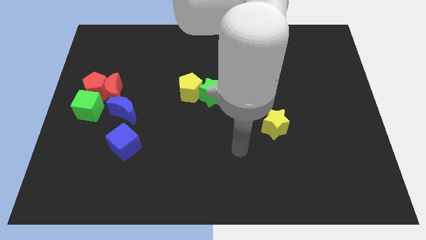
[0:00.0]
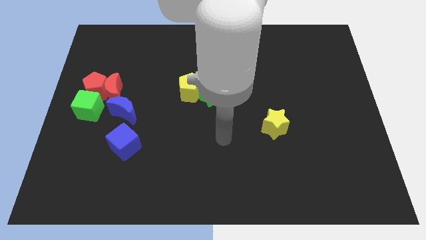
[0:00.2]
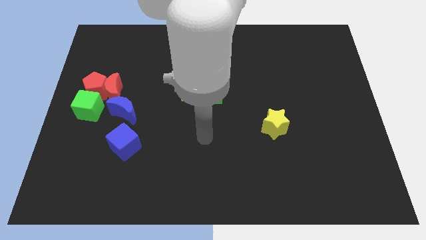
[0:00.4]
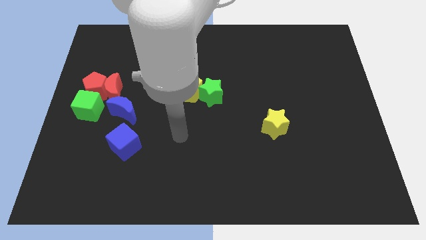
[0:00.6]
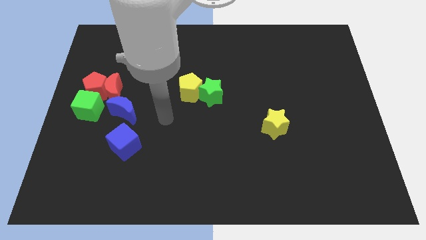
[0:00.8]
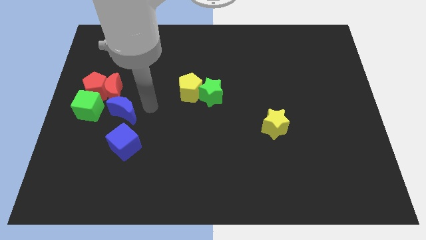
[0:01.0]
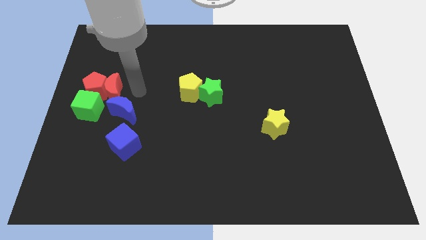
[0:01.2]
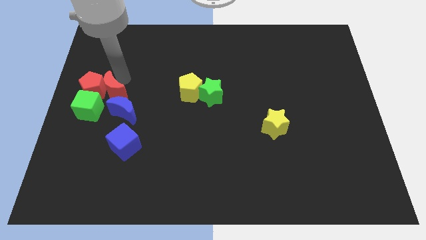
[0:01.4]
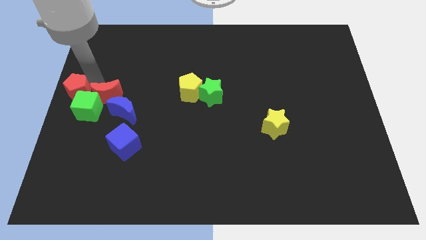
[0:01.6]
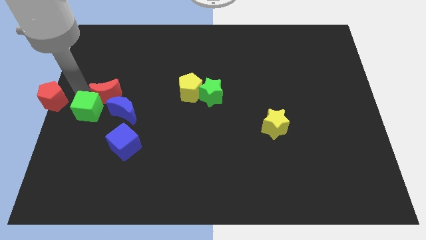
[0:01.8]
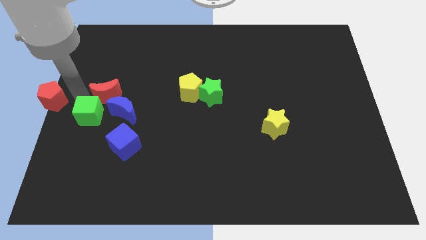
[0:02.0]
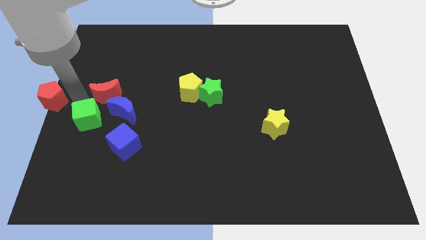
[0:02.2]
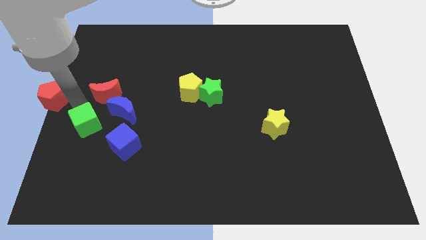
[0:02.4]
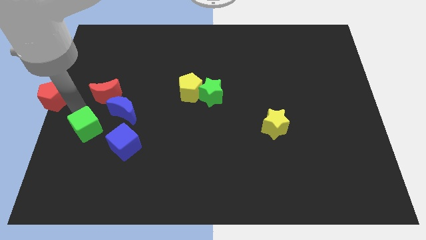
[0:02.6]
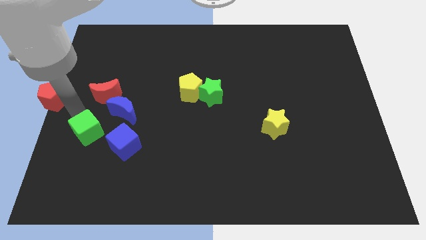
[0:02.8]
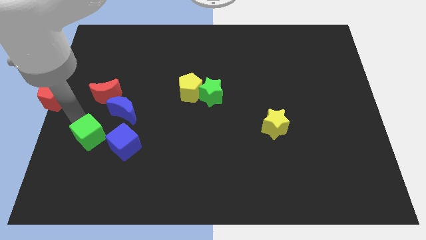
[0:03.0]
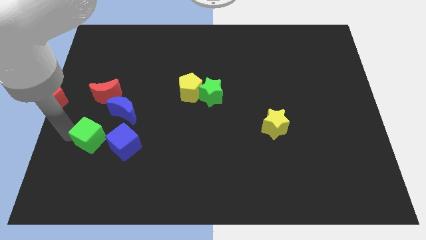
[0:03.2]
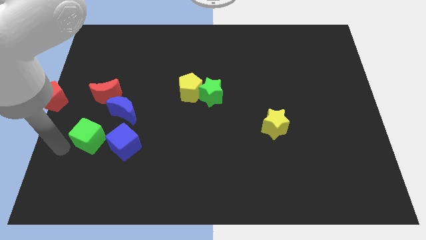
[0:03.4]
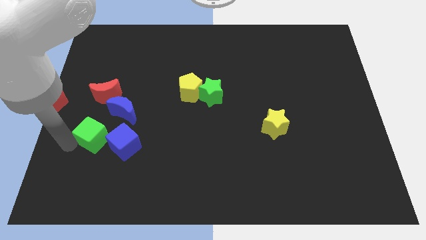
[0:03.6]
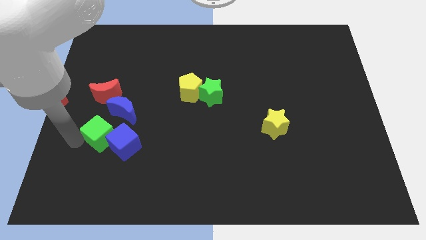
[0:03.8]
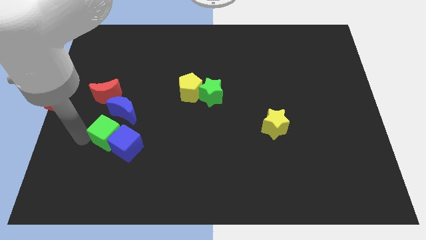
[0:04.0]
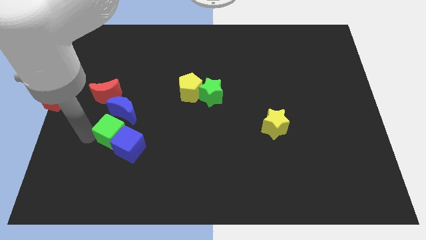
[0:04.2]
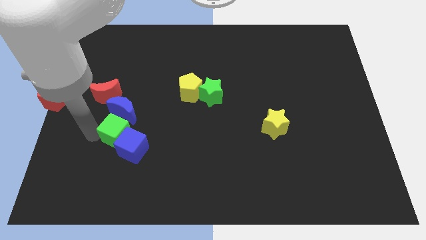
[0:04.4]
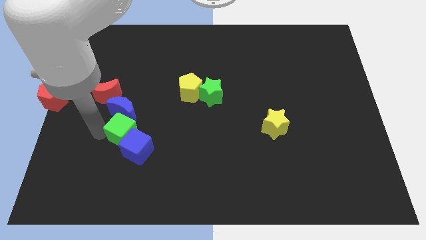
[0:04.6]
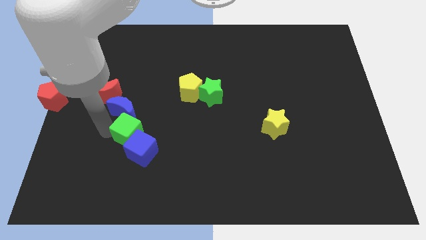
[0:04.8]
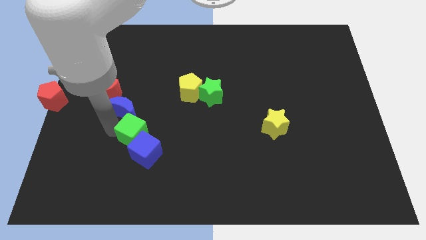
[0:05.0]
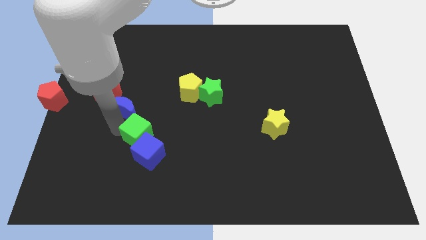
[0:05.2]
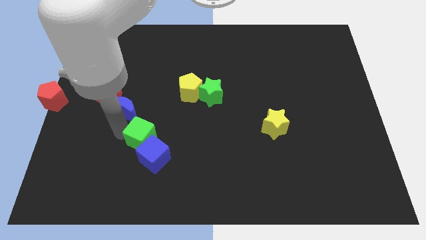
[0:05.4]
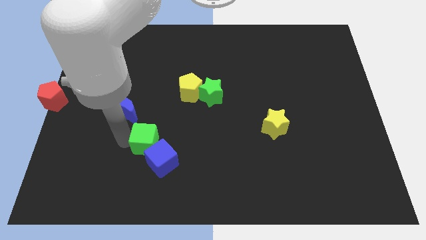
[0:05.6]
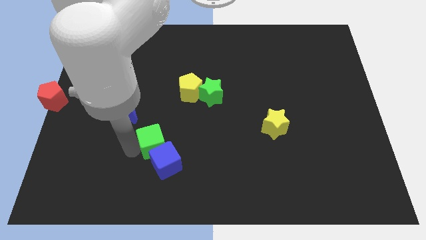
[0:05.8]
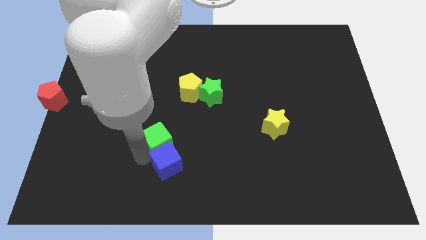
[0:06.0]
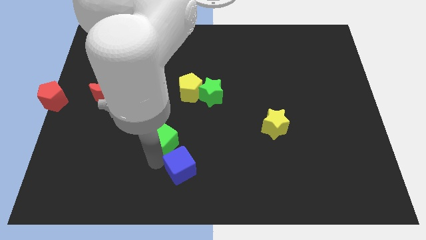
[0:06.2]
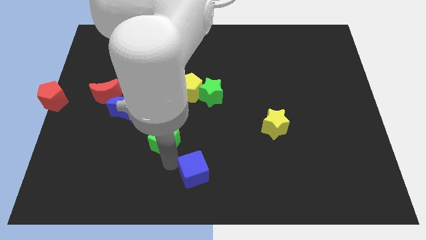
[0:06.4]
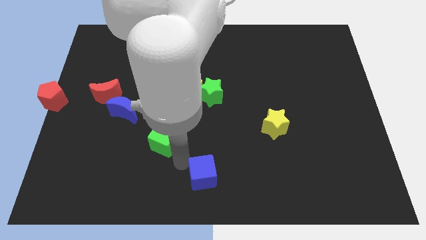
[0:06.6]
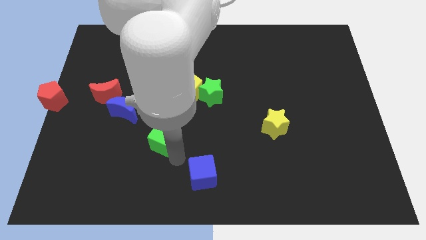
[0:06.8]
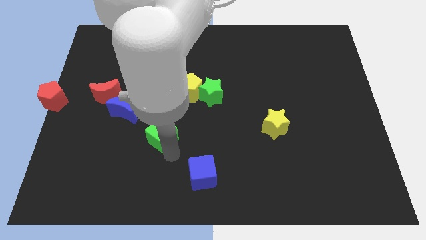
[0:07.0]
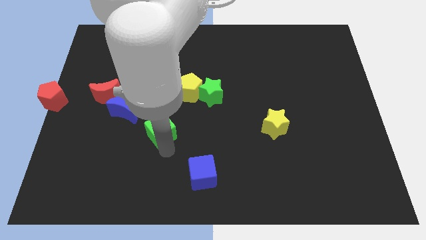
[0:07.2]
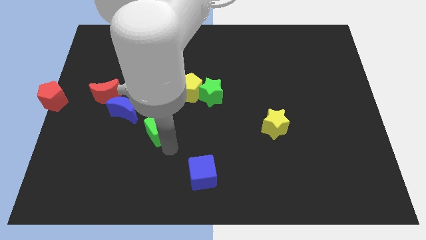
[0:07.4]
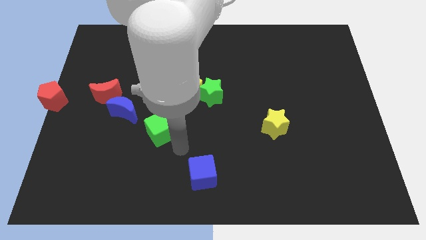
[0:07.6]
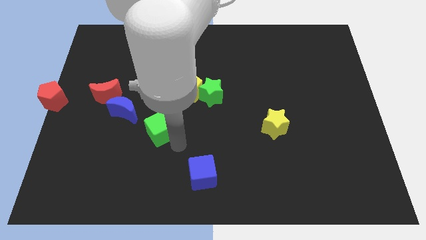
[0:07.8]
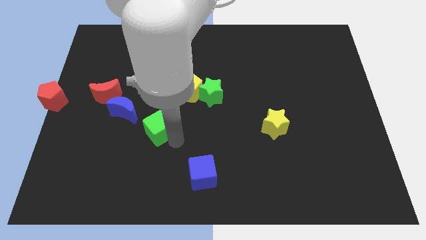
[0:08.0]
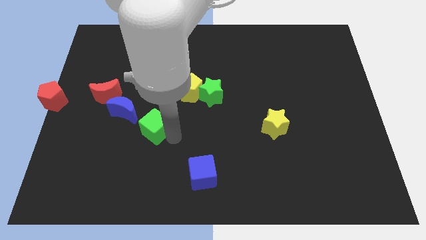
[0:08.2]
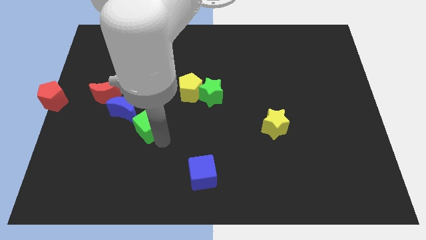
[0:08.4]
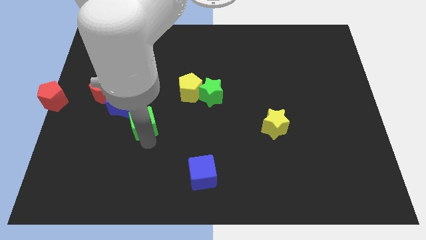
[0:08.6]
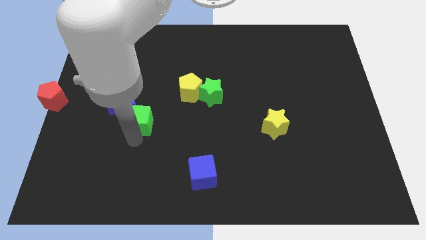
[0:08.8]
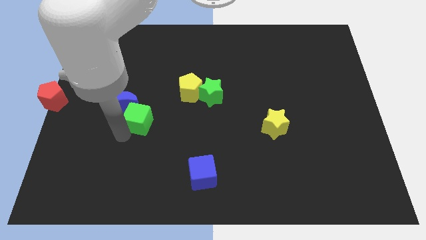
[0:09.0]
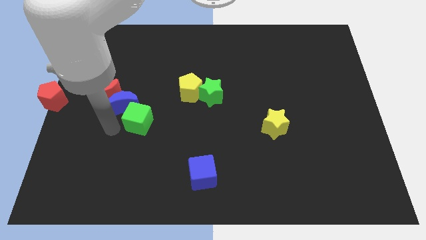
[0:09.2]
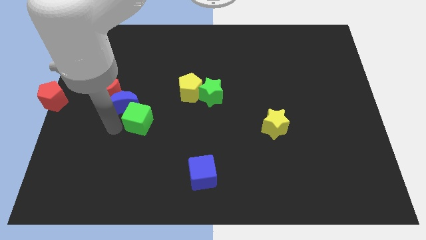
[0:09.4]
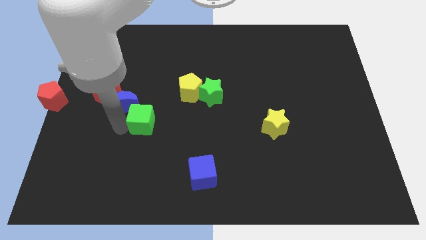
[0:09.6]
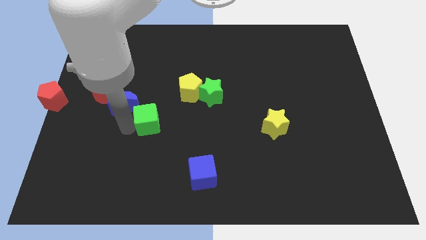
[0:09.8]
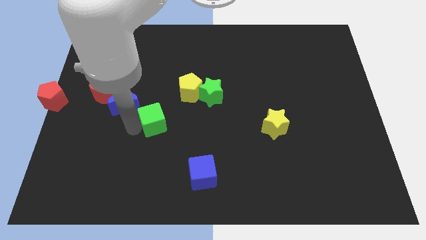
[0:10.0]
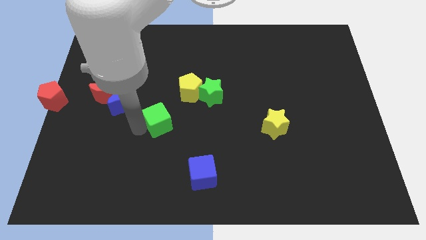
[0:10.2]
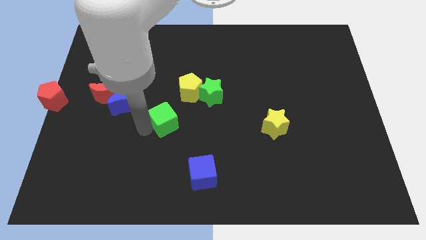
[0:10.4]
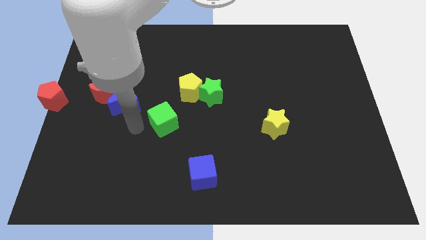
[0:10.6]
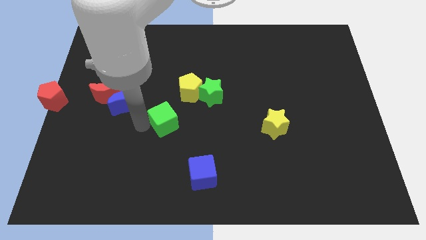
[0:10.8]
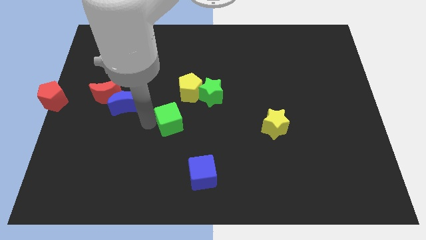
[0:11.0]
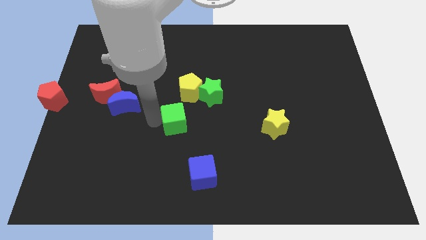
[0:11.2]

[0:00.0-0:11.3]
move the green cube right

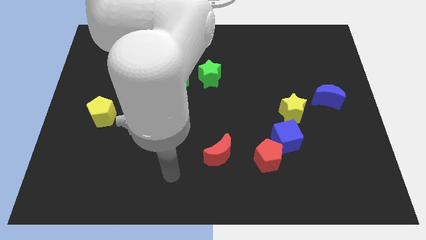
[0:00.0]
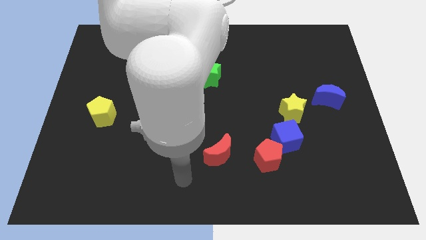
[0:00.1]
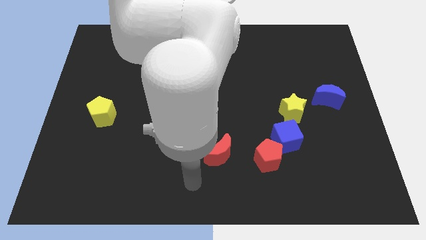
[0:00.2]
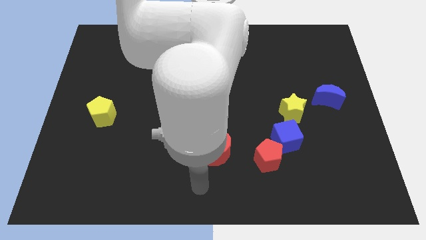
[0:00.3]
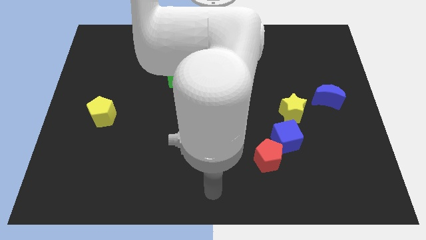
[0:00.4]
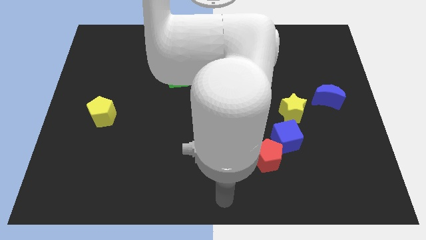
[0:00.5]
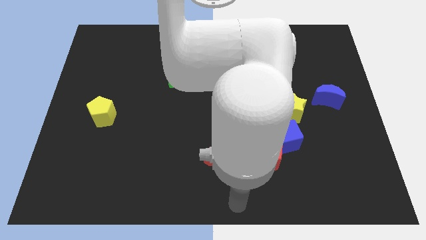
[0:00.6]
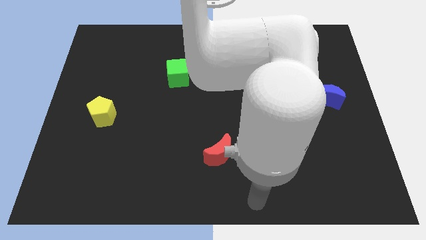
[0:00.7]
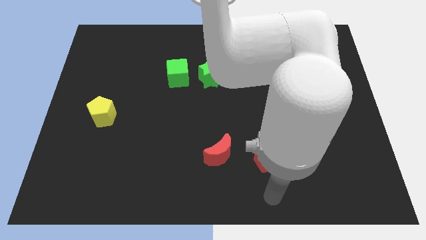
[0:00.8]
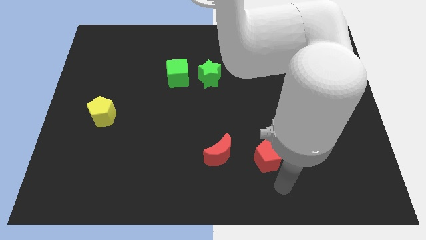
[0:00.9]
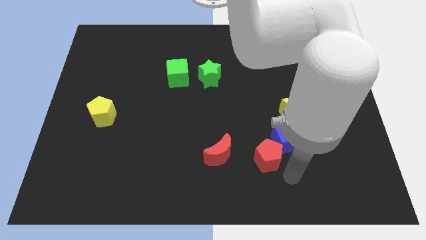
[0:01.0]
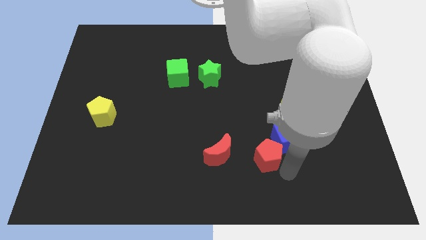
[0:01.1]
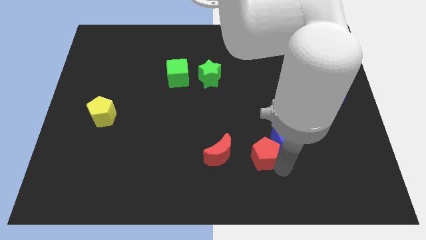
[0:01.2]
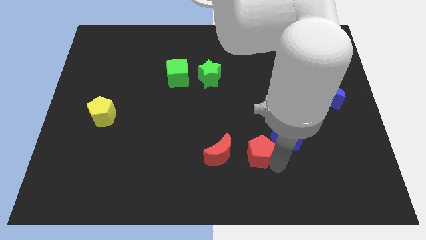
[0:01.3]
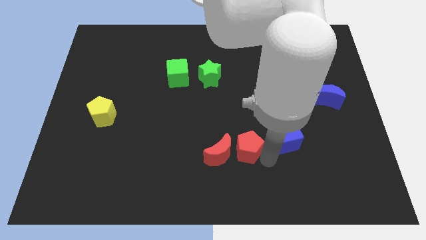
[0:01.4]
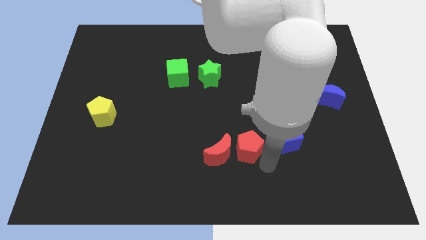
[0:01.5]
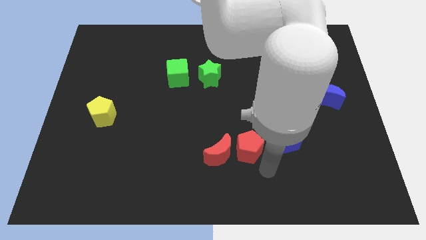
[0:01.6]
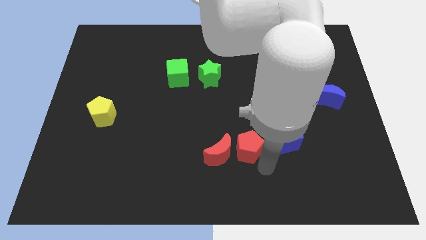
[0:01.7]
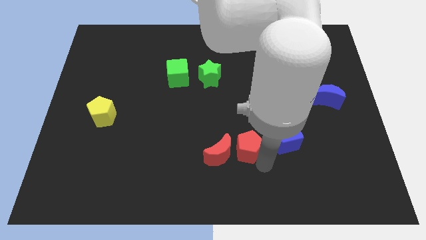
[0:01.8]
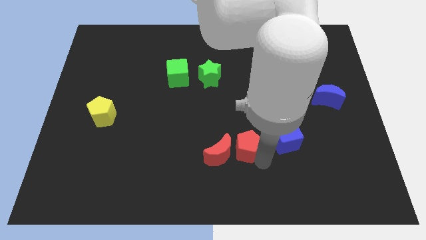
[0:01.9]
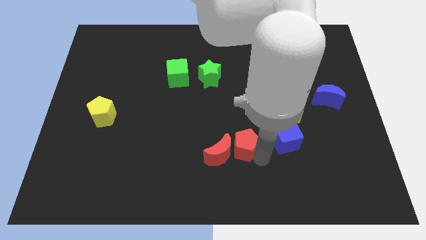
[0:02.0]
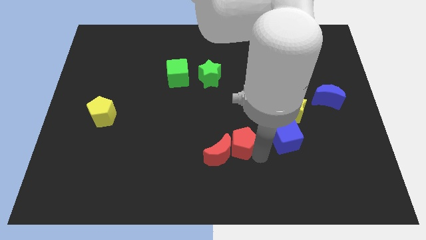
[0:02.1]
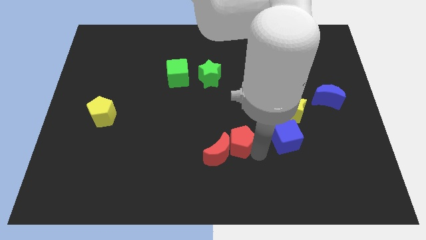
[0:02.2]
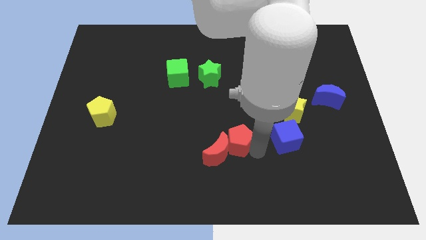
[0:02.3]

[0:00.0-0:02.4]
move the red pentagon slightly up and to the left

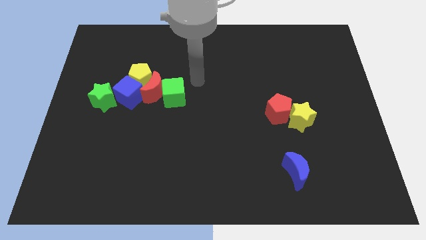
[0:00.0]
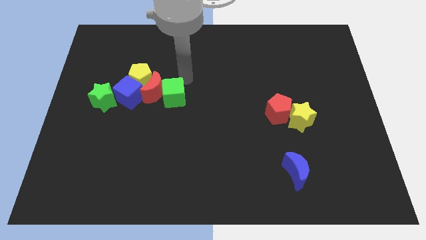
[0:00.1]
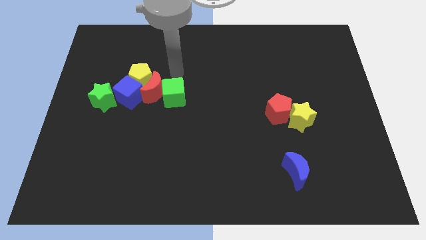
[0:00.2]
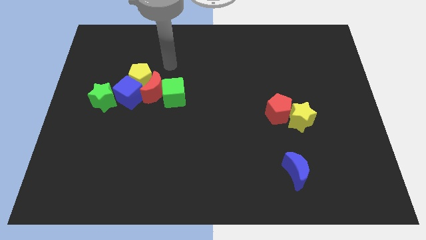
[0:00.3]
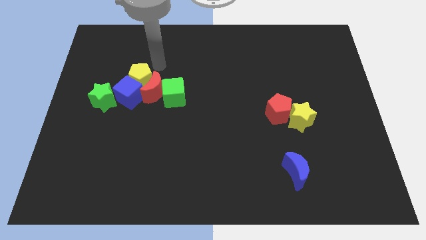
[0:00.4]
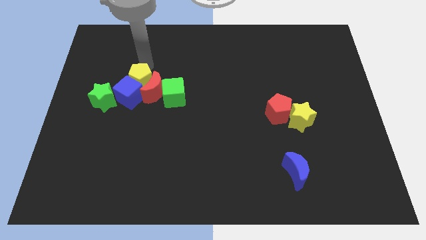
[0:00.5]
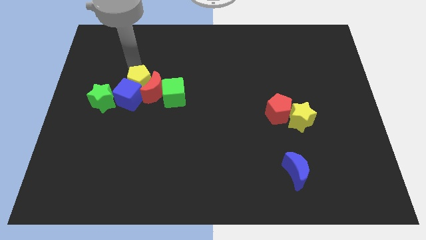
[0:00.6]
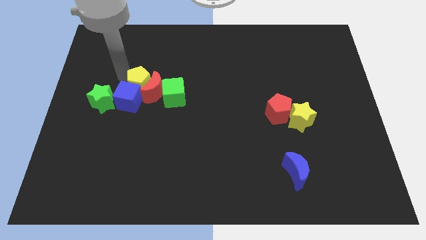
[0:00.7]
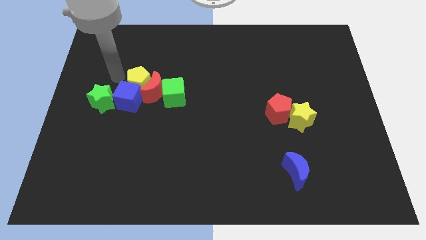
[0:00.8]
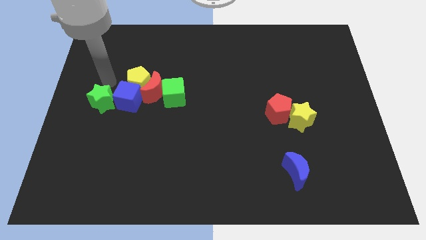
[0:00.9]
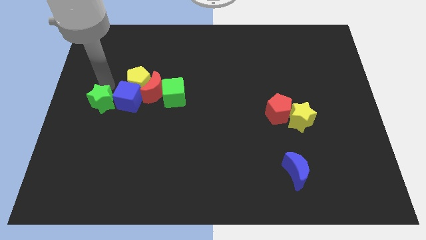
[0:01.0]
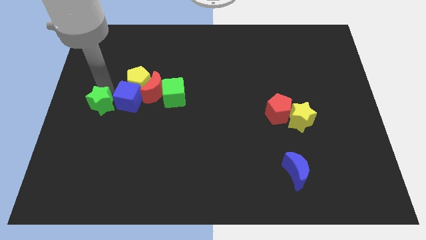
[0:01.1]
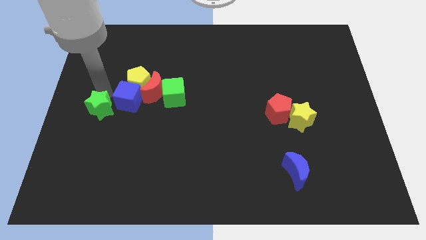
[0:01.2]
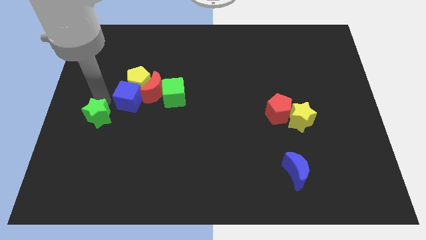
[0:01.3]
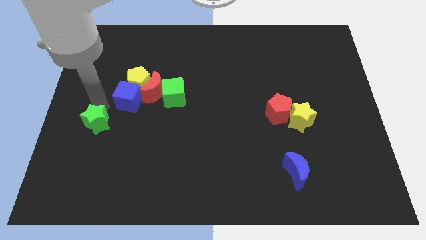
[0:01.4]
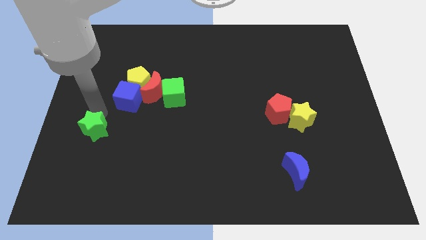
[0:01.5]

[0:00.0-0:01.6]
slightly move the green star downwards
